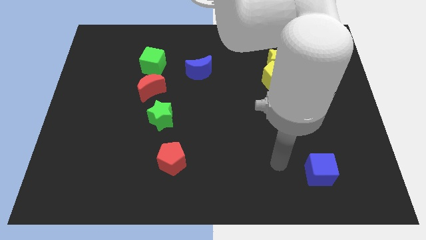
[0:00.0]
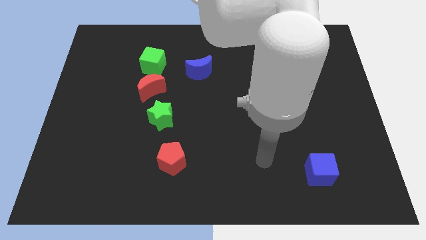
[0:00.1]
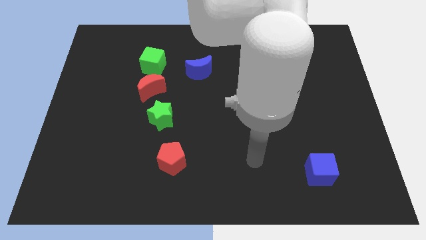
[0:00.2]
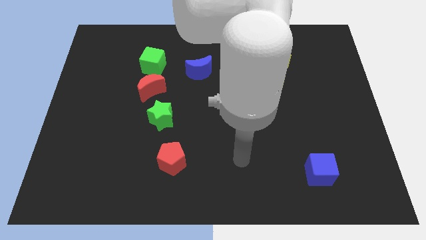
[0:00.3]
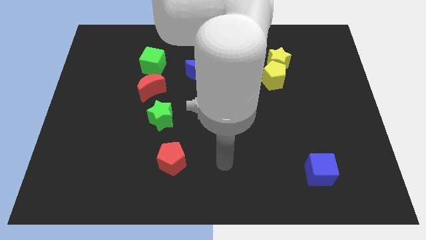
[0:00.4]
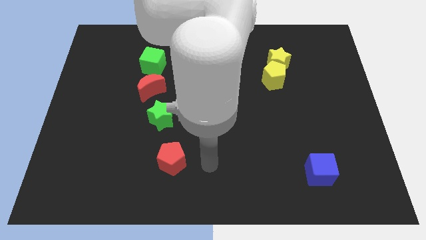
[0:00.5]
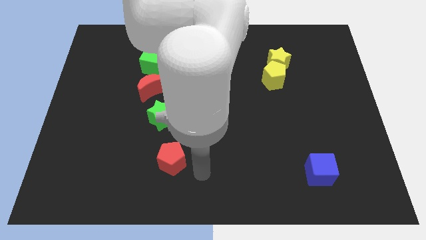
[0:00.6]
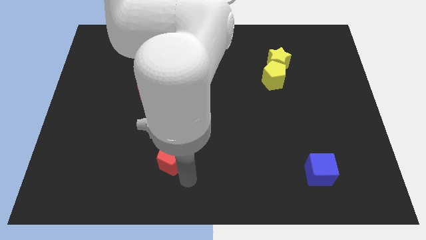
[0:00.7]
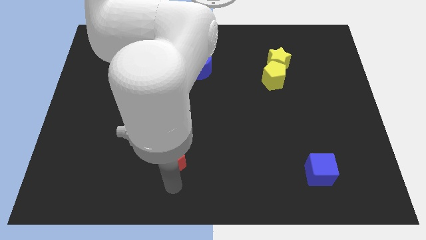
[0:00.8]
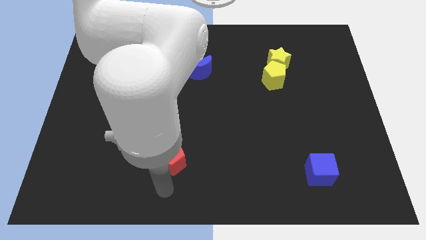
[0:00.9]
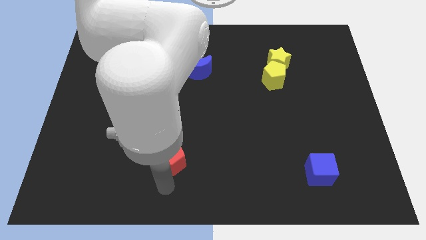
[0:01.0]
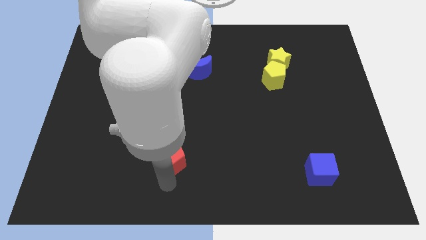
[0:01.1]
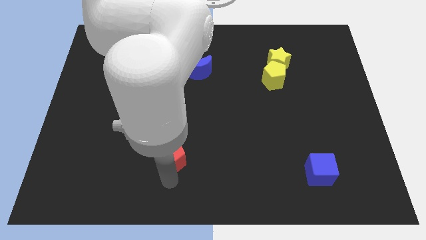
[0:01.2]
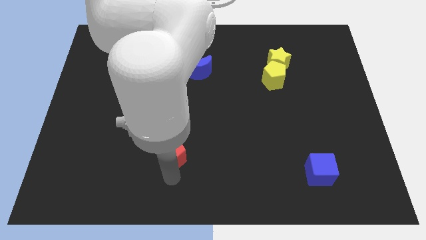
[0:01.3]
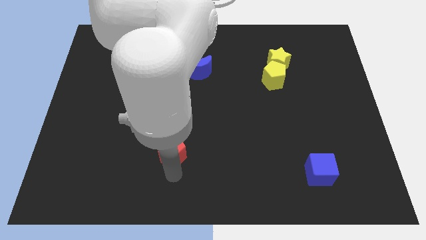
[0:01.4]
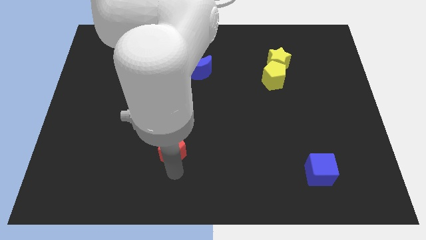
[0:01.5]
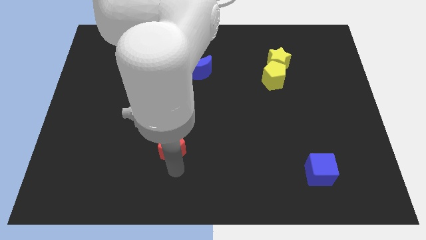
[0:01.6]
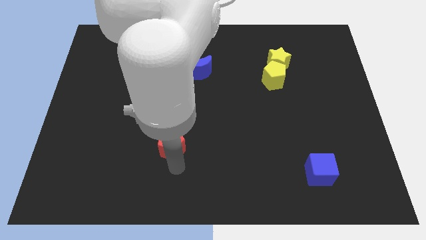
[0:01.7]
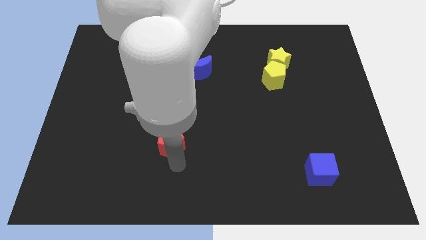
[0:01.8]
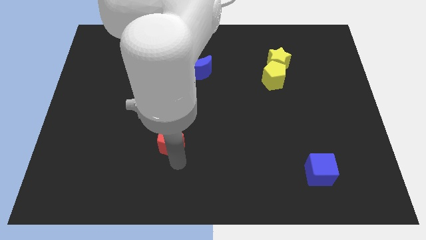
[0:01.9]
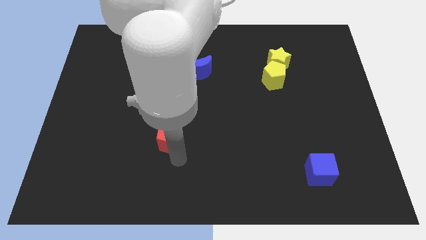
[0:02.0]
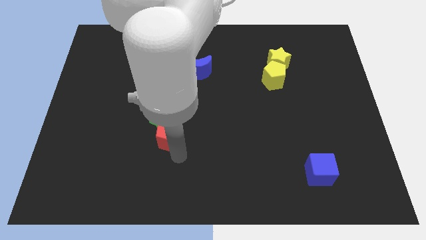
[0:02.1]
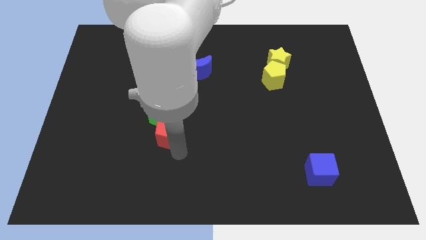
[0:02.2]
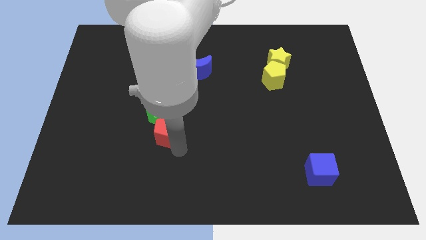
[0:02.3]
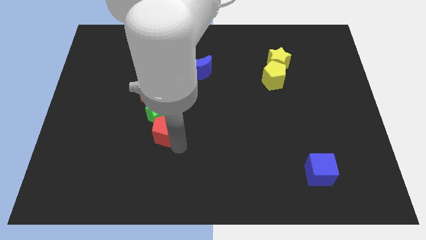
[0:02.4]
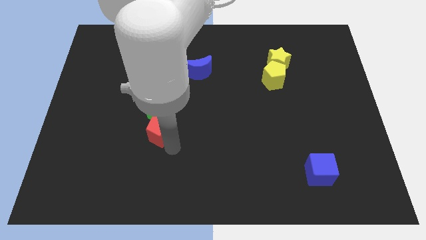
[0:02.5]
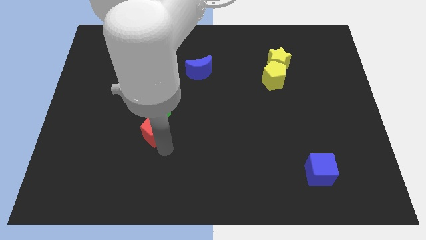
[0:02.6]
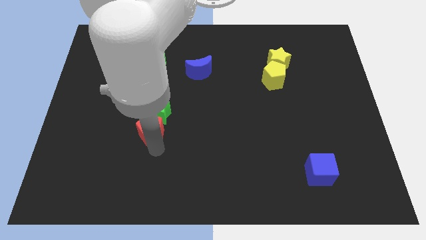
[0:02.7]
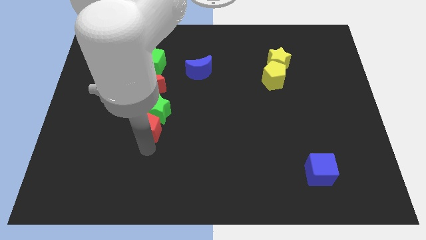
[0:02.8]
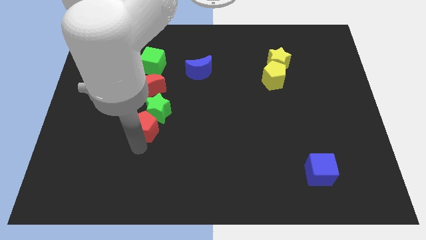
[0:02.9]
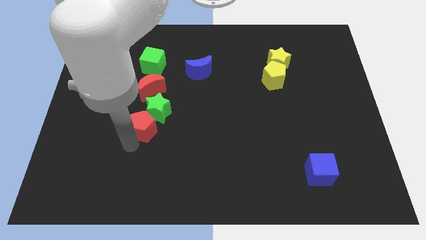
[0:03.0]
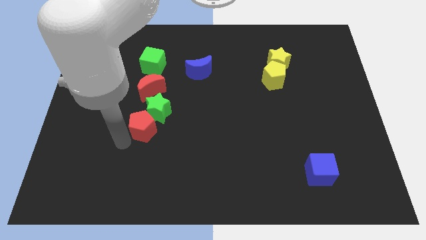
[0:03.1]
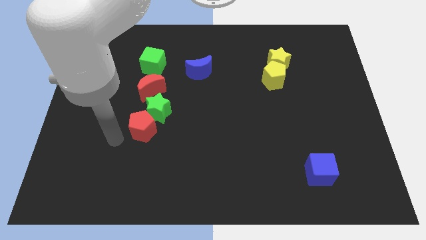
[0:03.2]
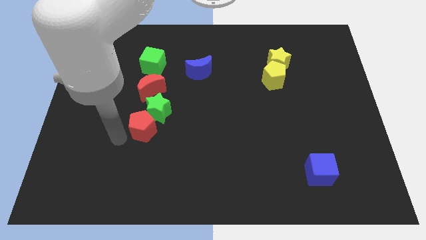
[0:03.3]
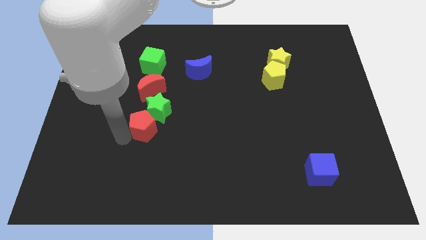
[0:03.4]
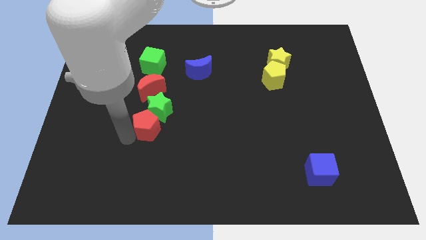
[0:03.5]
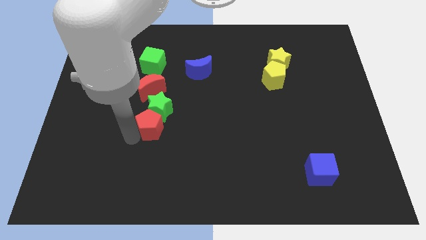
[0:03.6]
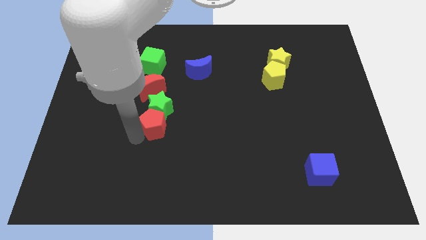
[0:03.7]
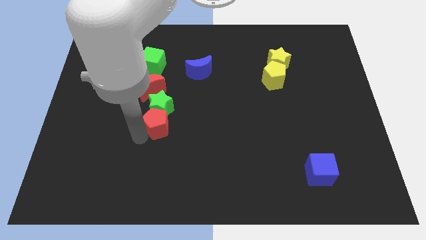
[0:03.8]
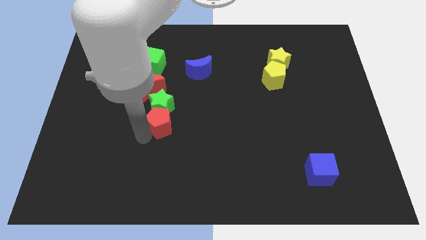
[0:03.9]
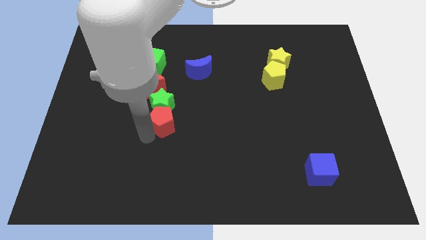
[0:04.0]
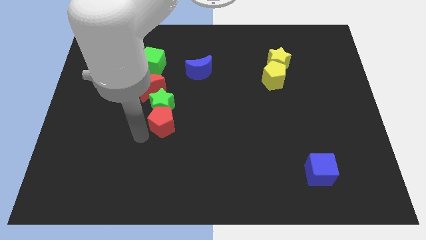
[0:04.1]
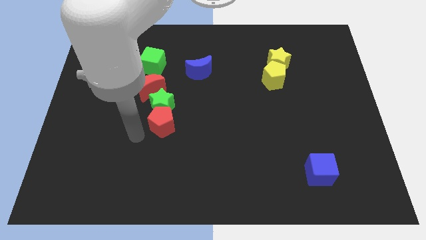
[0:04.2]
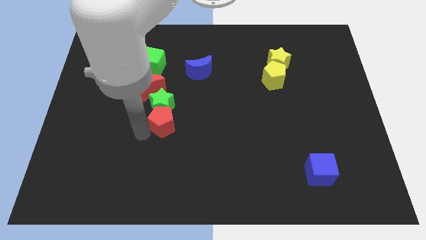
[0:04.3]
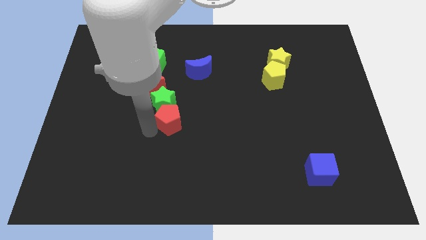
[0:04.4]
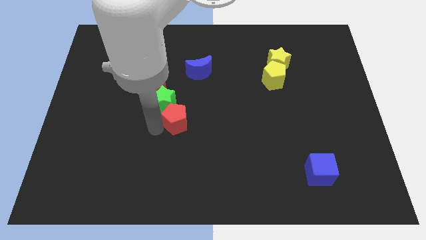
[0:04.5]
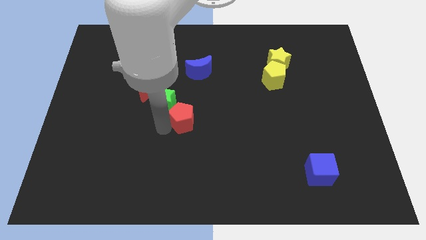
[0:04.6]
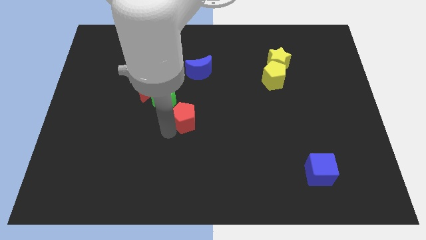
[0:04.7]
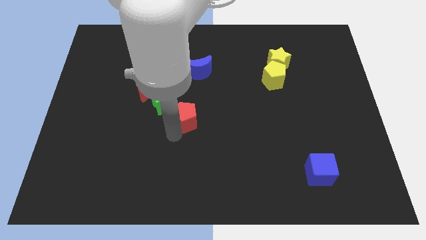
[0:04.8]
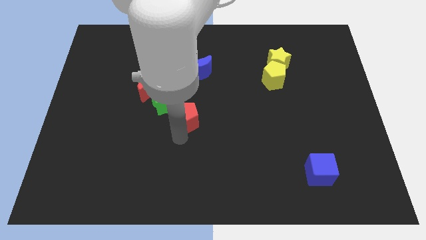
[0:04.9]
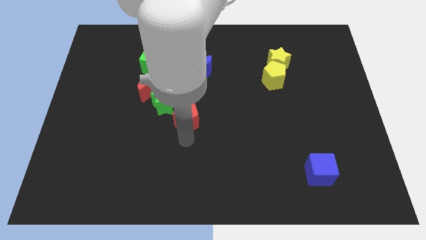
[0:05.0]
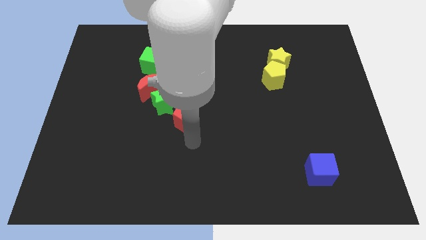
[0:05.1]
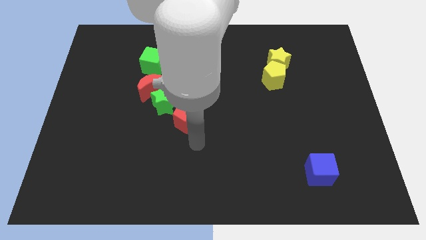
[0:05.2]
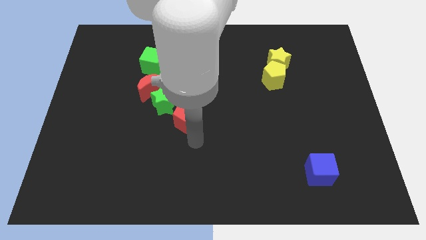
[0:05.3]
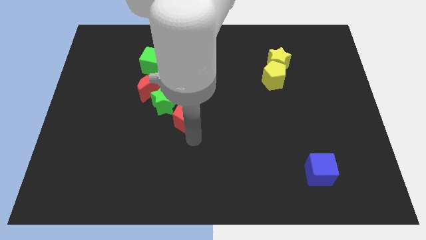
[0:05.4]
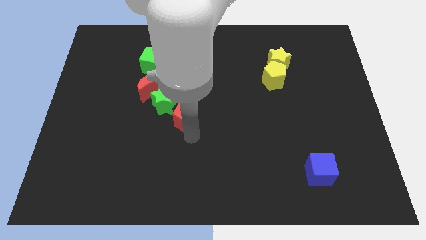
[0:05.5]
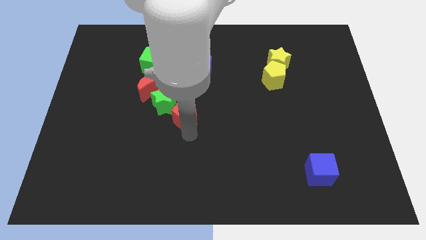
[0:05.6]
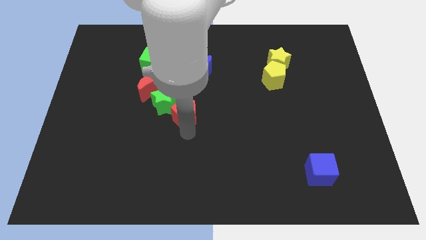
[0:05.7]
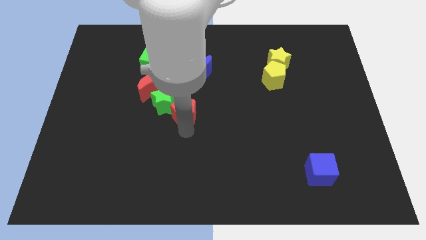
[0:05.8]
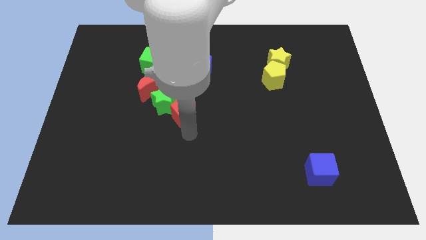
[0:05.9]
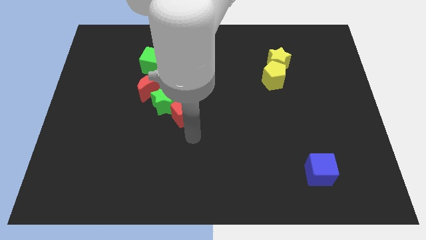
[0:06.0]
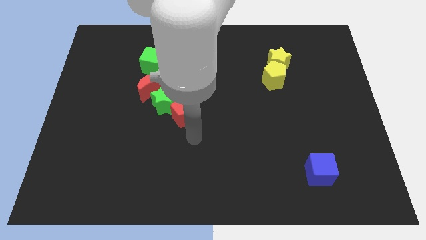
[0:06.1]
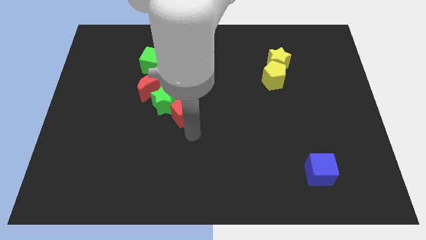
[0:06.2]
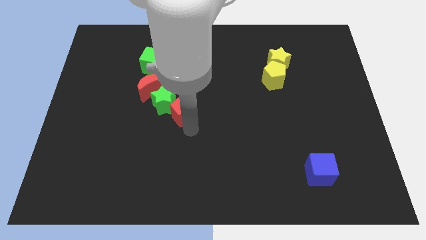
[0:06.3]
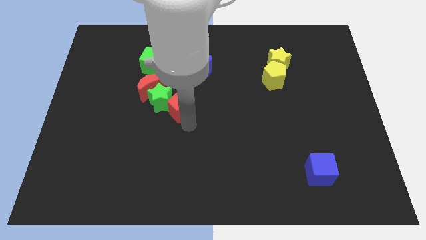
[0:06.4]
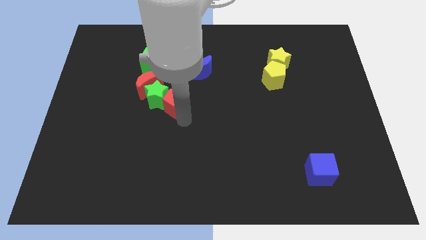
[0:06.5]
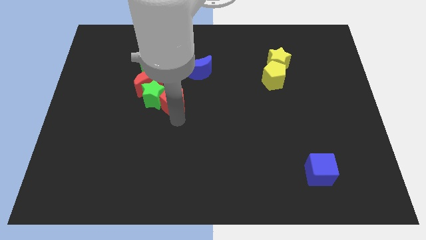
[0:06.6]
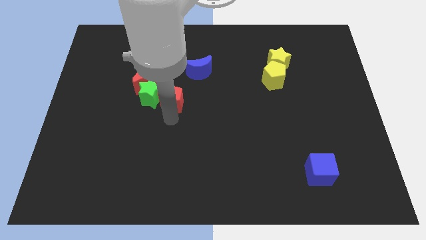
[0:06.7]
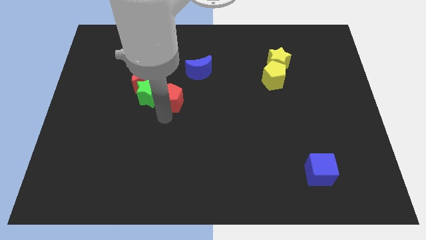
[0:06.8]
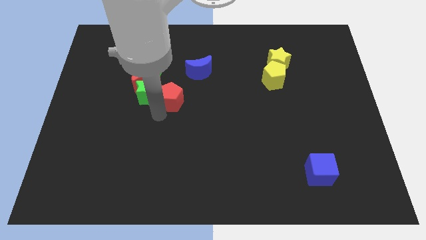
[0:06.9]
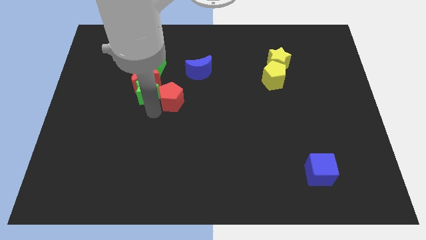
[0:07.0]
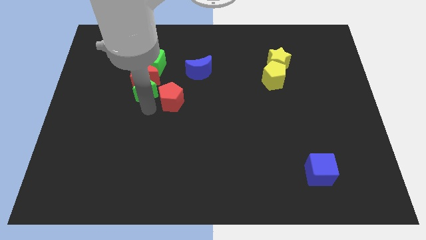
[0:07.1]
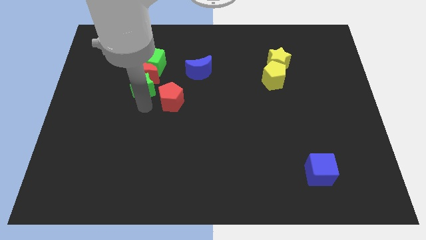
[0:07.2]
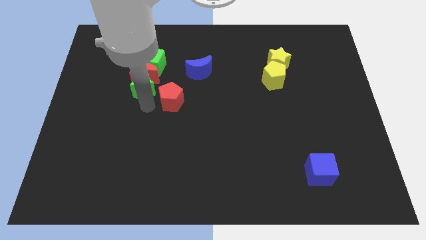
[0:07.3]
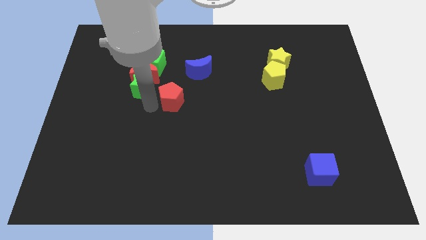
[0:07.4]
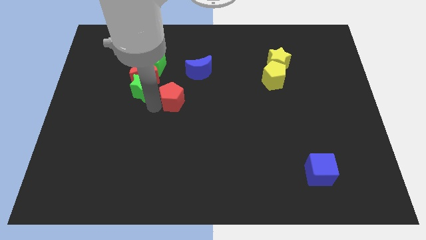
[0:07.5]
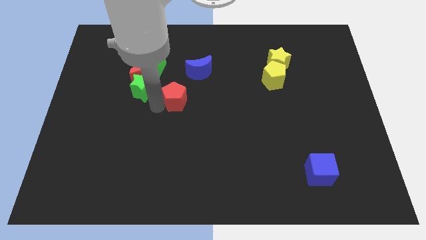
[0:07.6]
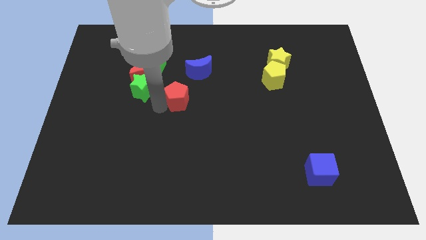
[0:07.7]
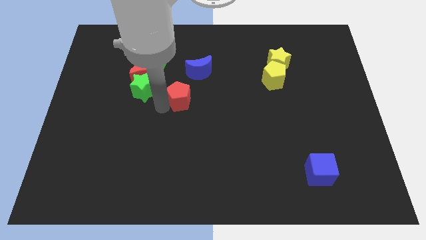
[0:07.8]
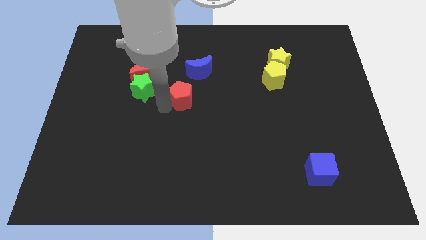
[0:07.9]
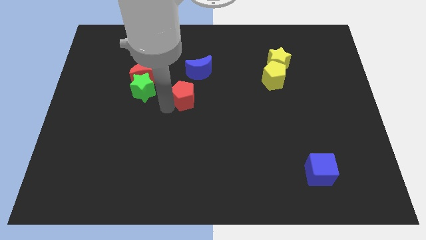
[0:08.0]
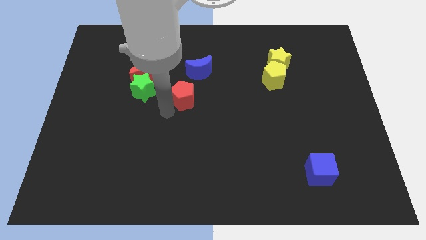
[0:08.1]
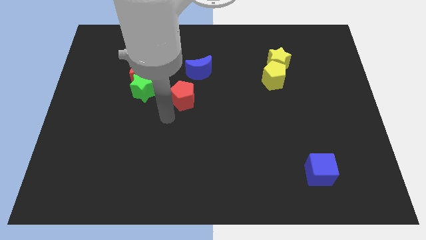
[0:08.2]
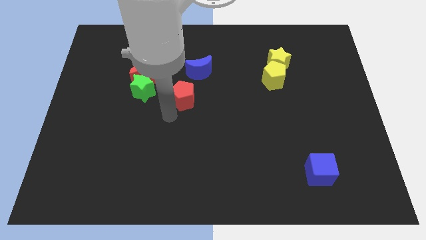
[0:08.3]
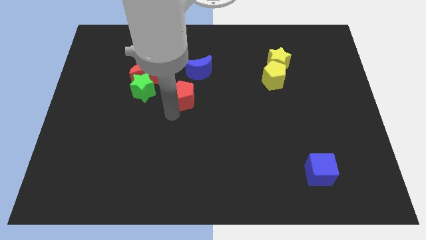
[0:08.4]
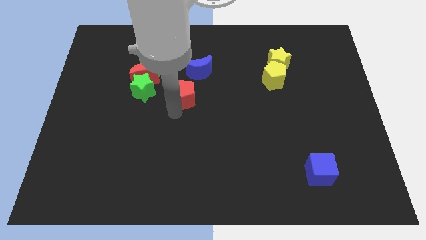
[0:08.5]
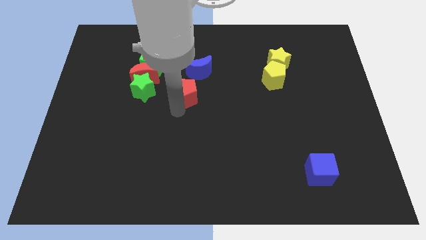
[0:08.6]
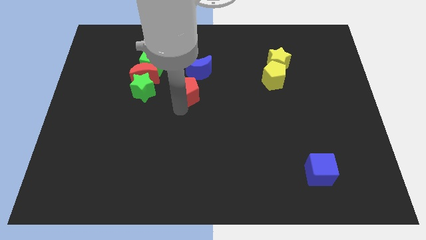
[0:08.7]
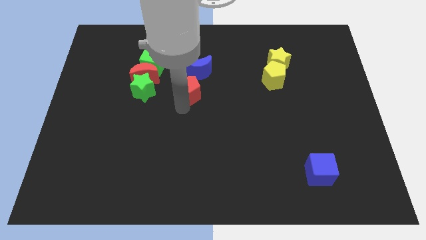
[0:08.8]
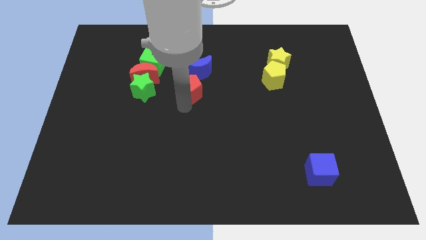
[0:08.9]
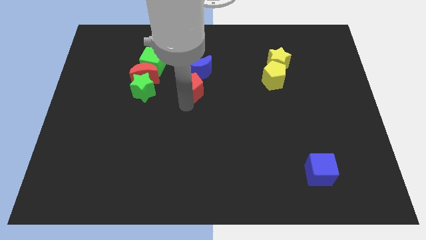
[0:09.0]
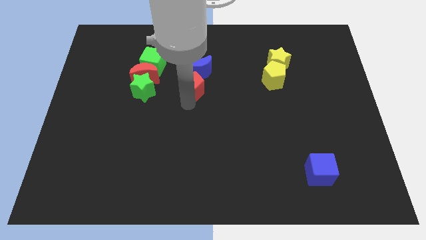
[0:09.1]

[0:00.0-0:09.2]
move the red pentagon to the blue moon
